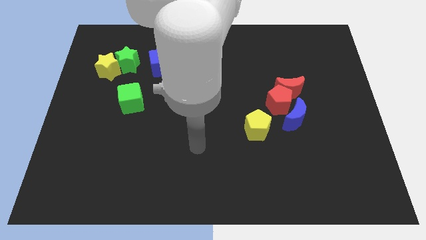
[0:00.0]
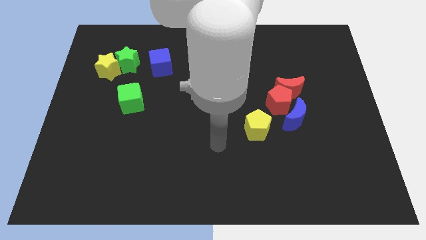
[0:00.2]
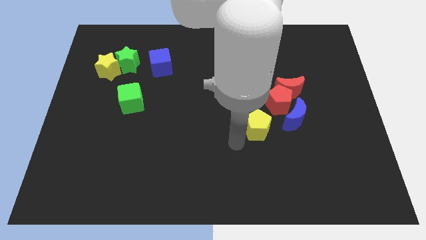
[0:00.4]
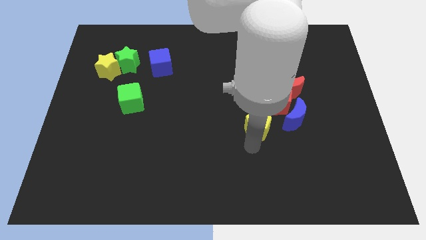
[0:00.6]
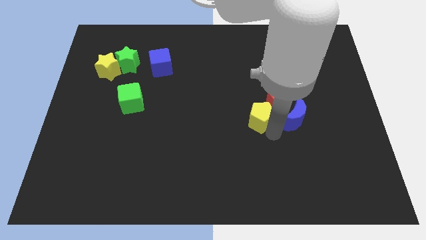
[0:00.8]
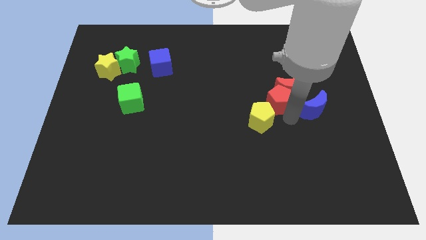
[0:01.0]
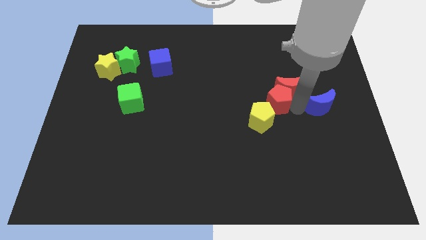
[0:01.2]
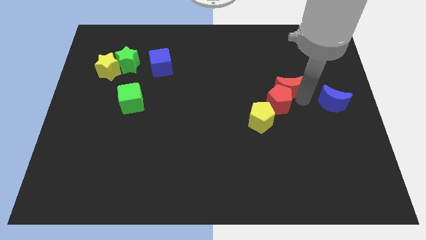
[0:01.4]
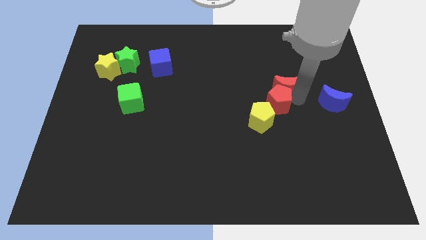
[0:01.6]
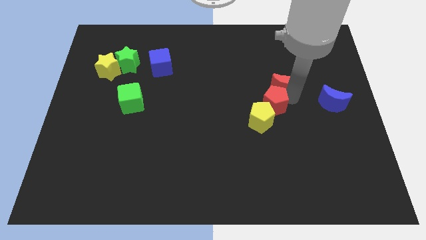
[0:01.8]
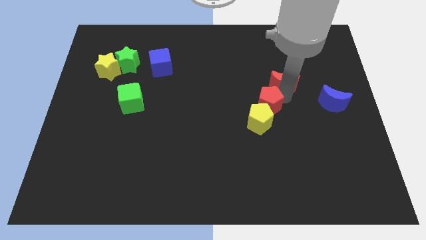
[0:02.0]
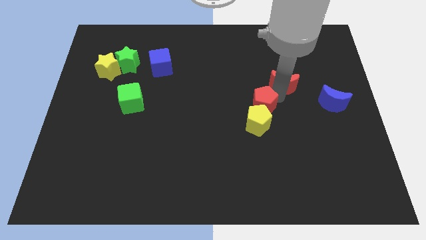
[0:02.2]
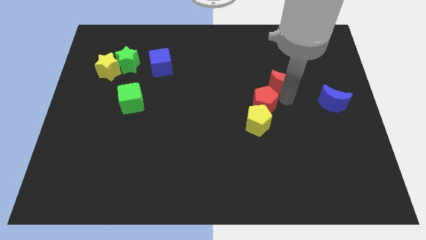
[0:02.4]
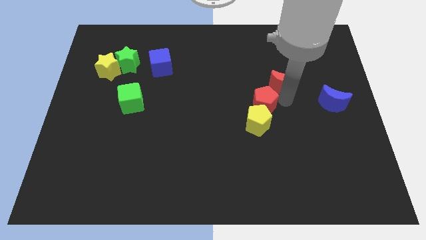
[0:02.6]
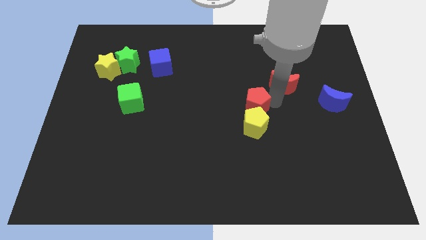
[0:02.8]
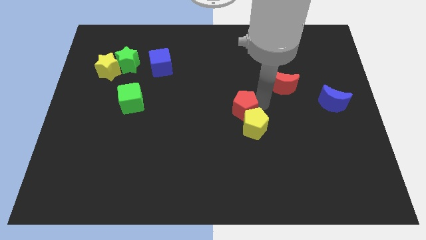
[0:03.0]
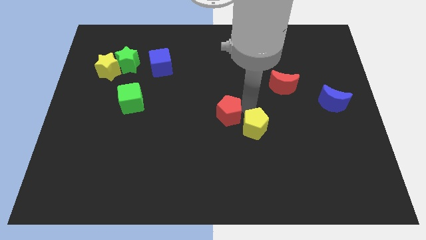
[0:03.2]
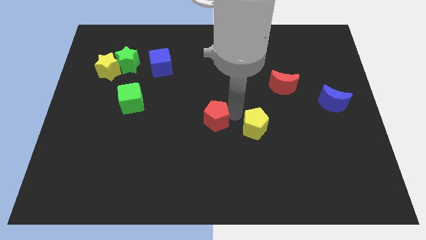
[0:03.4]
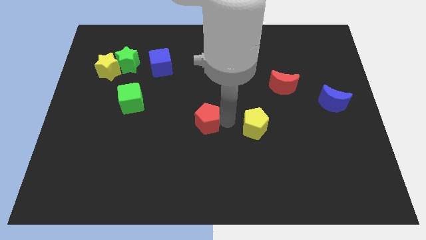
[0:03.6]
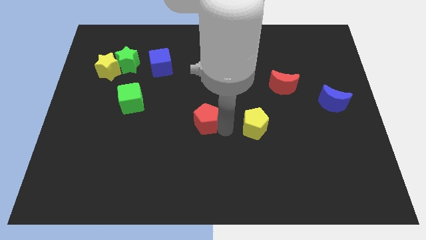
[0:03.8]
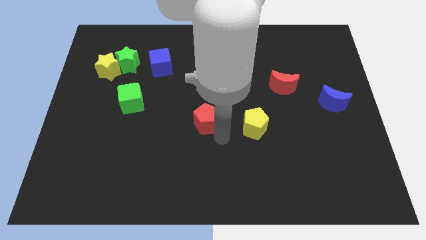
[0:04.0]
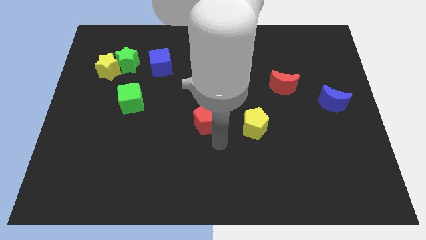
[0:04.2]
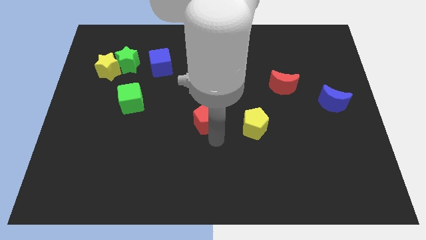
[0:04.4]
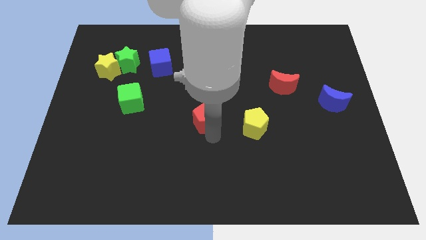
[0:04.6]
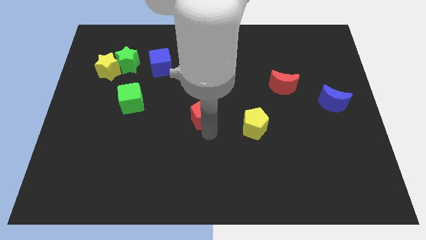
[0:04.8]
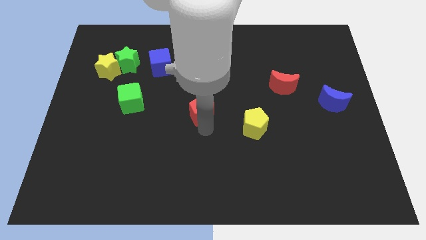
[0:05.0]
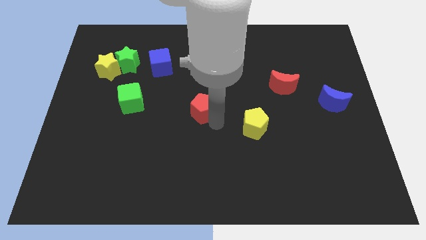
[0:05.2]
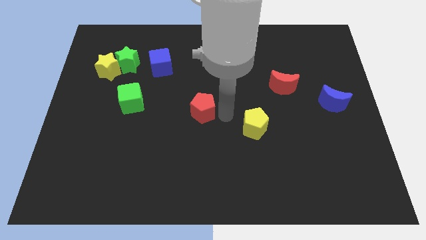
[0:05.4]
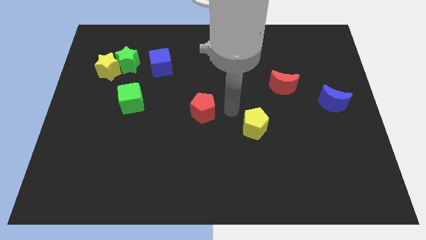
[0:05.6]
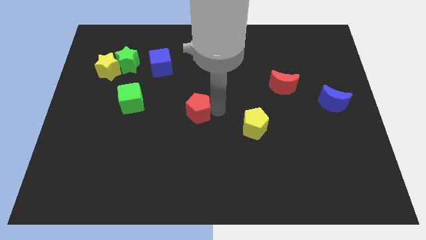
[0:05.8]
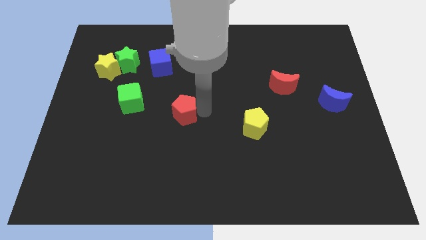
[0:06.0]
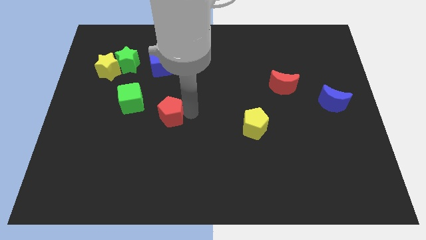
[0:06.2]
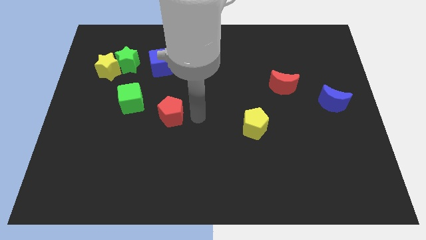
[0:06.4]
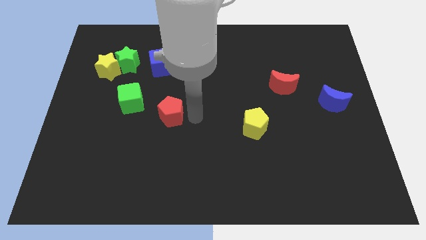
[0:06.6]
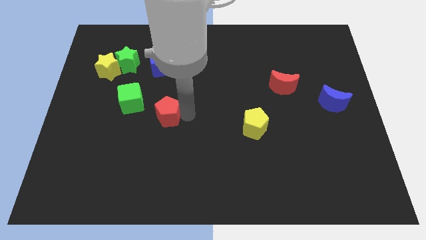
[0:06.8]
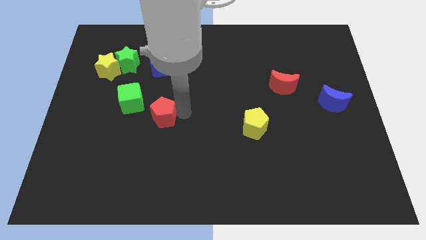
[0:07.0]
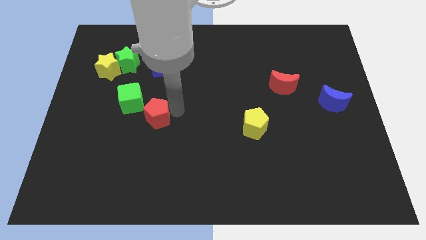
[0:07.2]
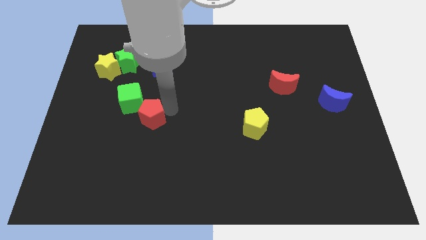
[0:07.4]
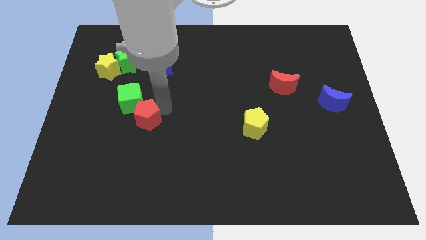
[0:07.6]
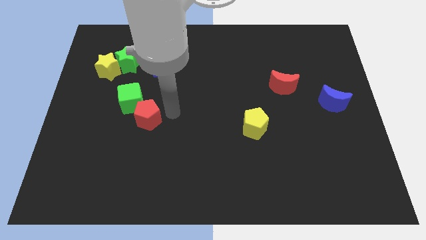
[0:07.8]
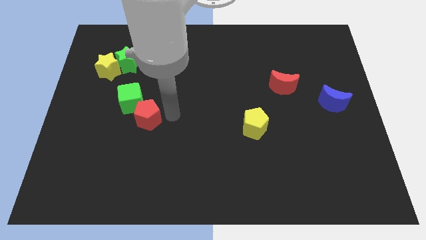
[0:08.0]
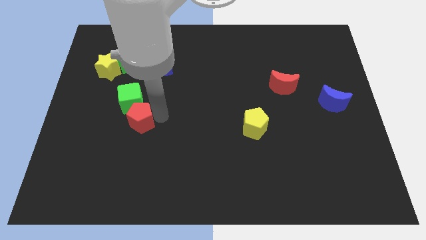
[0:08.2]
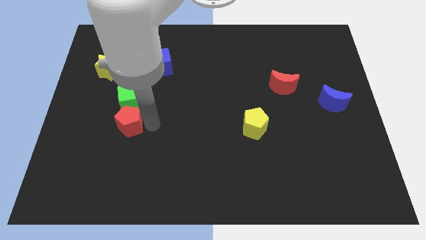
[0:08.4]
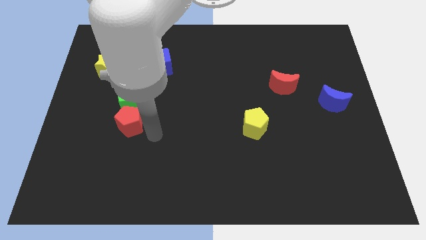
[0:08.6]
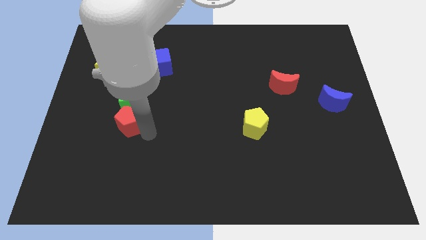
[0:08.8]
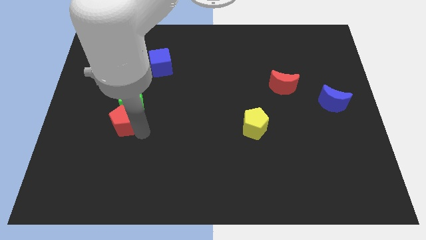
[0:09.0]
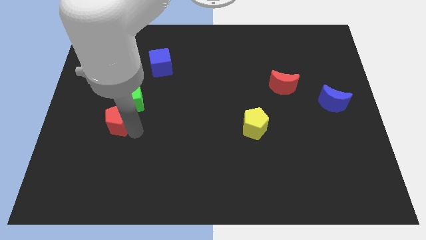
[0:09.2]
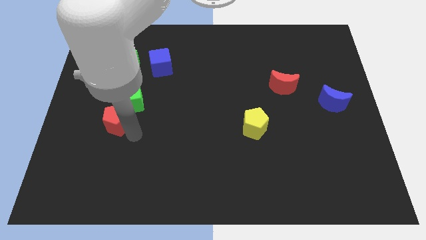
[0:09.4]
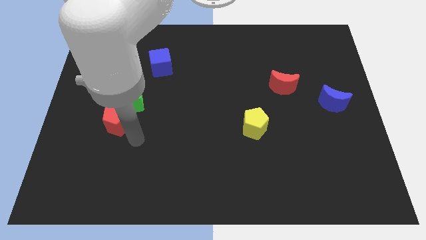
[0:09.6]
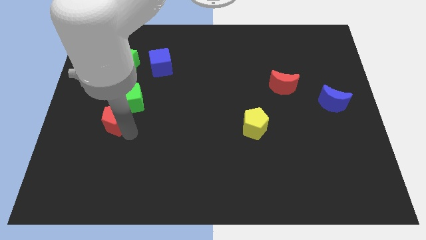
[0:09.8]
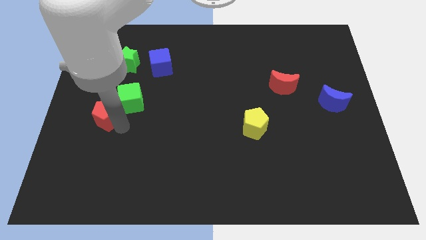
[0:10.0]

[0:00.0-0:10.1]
move the red pentagon to the bottom side of the yellow star

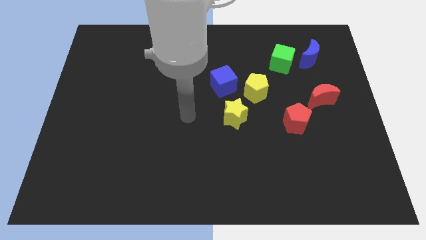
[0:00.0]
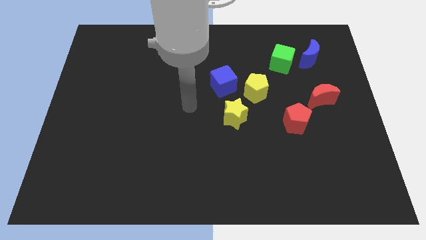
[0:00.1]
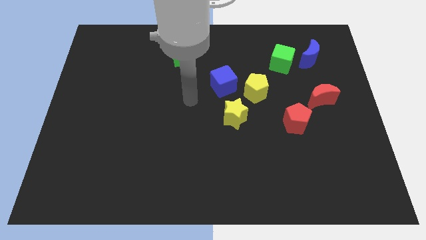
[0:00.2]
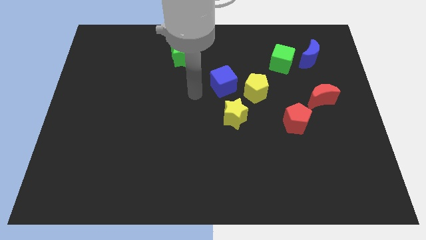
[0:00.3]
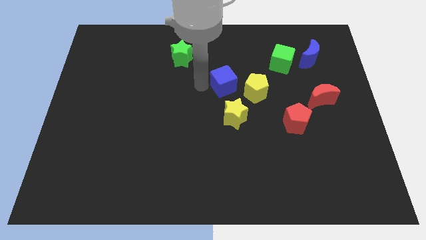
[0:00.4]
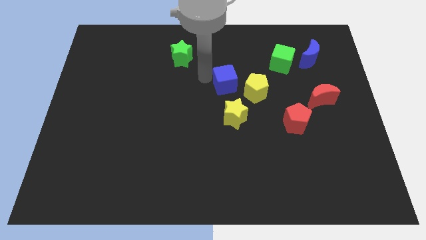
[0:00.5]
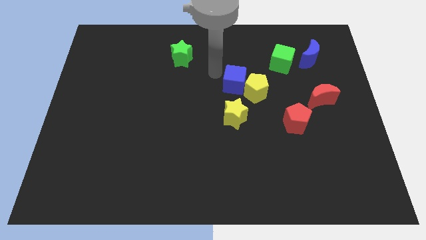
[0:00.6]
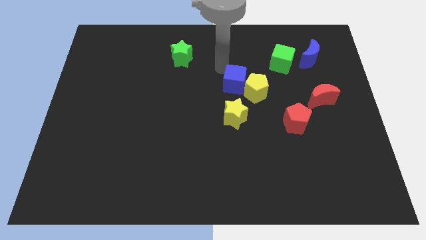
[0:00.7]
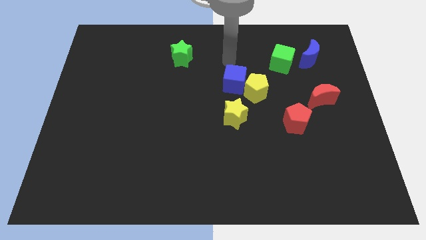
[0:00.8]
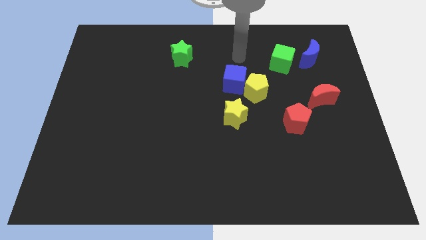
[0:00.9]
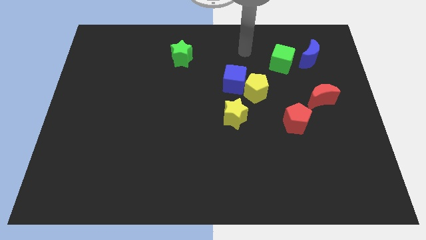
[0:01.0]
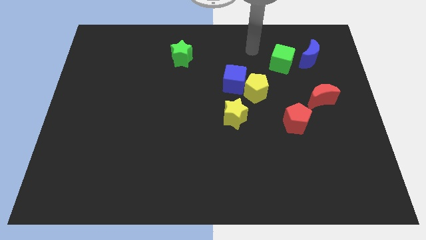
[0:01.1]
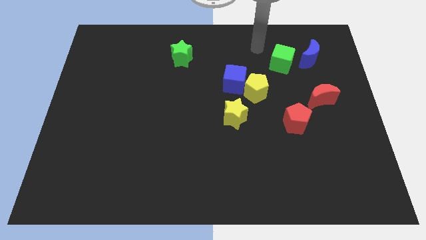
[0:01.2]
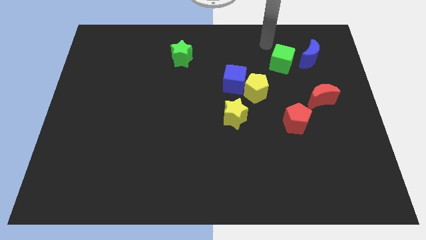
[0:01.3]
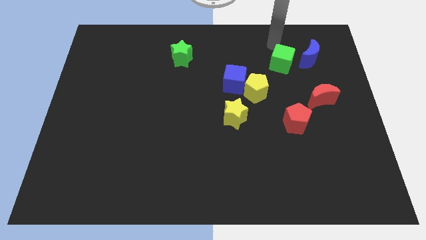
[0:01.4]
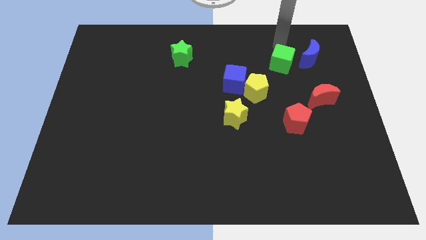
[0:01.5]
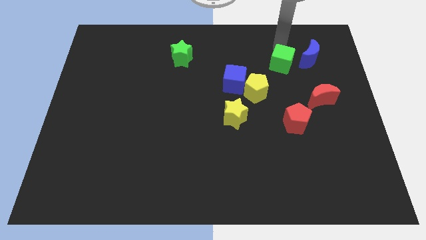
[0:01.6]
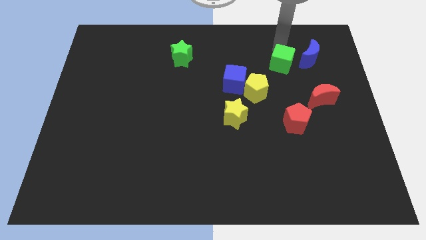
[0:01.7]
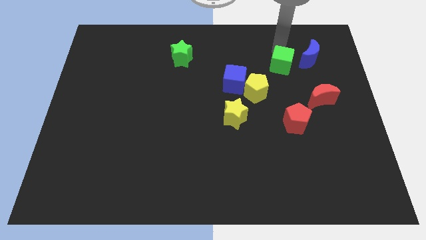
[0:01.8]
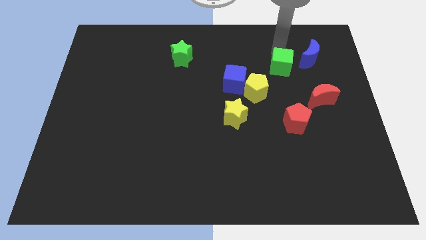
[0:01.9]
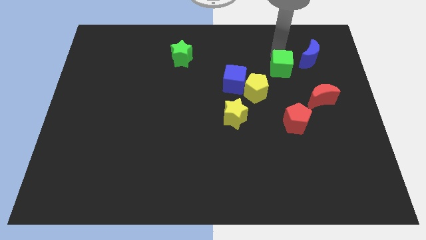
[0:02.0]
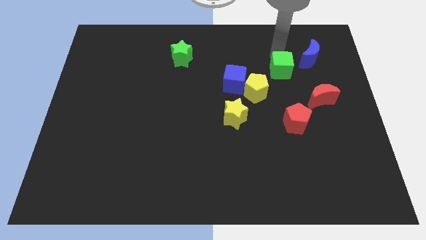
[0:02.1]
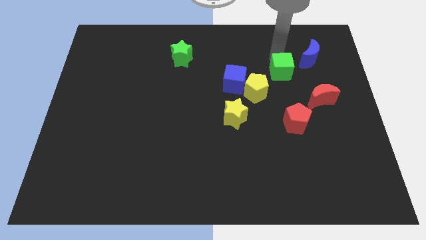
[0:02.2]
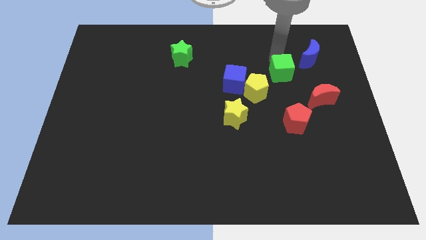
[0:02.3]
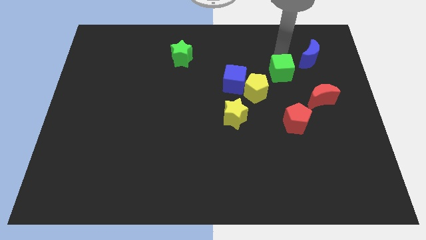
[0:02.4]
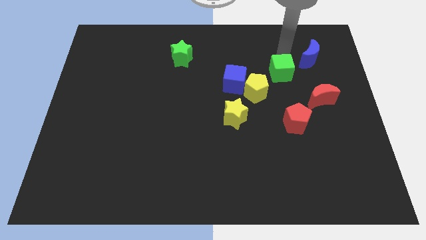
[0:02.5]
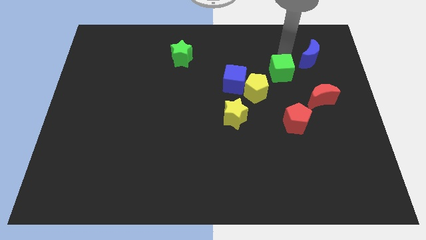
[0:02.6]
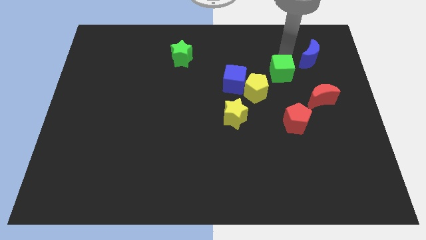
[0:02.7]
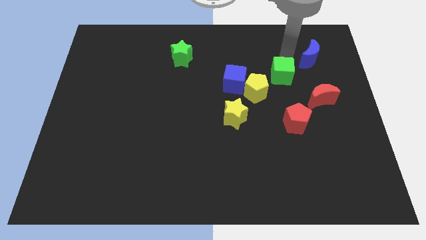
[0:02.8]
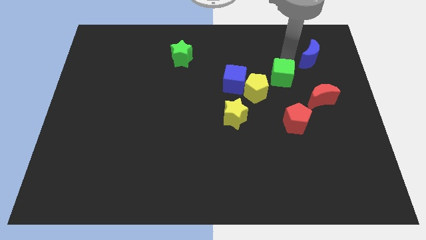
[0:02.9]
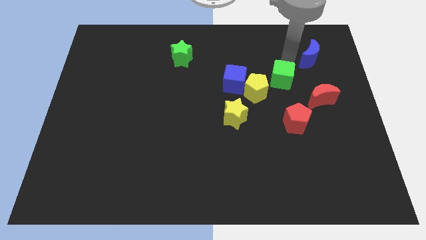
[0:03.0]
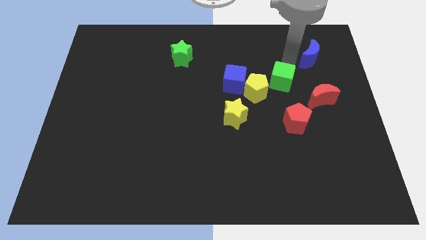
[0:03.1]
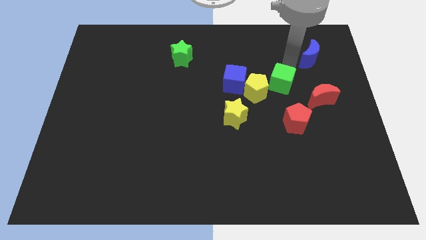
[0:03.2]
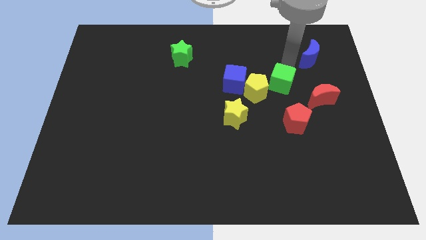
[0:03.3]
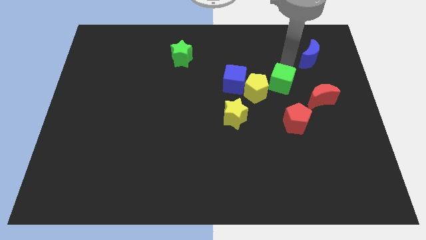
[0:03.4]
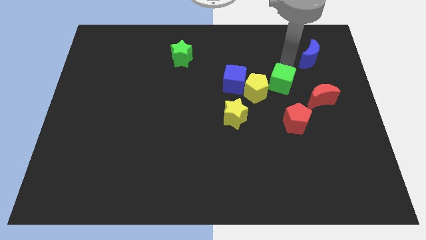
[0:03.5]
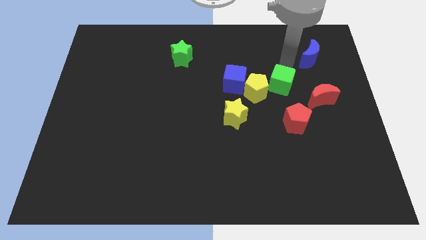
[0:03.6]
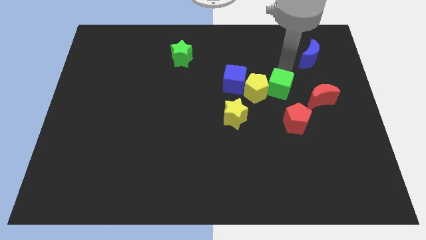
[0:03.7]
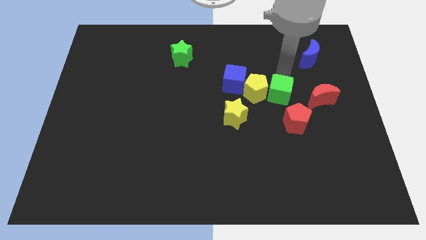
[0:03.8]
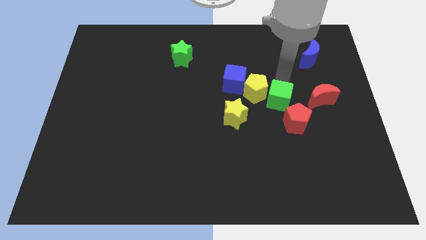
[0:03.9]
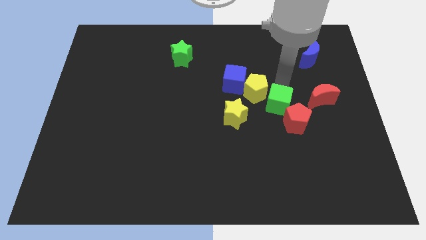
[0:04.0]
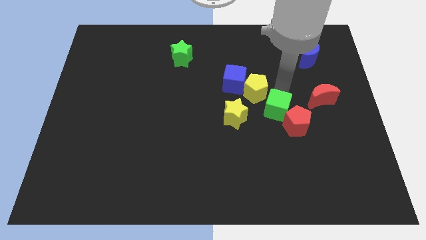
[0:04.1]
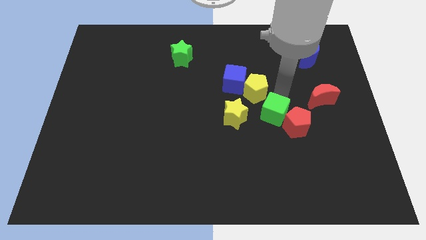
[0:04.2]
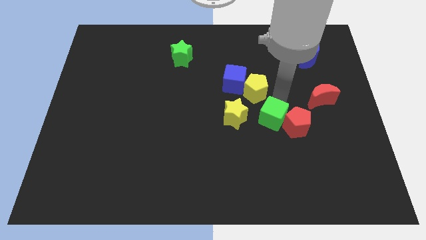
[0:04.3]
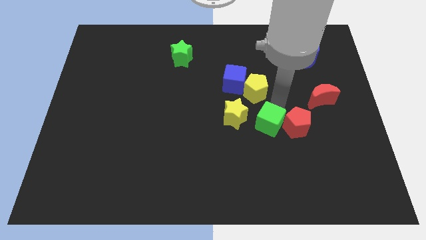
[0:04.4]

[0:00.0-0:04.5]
put the green cube diagonally down and to the right of the yellow star
